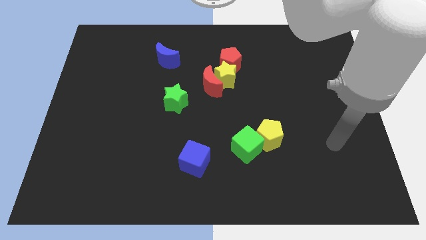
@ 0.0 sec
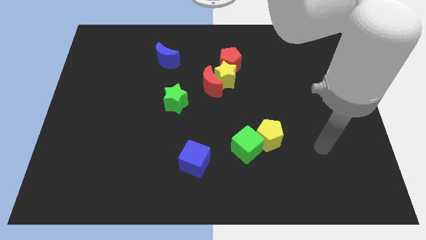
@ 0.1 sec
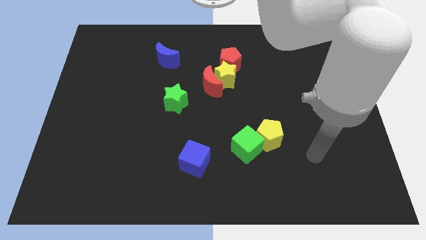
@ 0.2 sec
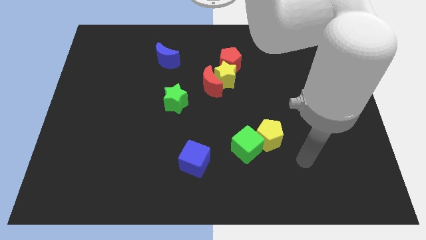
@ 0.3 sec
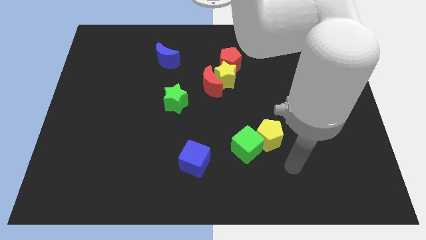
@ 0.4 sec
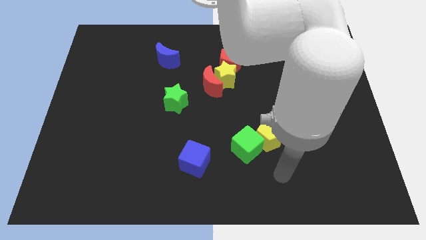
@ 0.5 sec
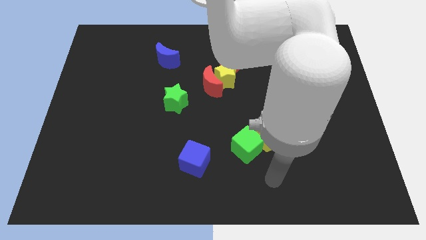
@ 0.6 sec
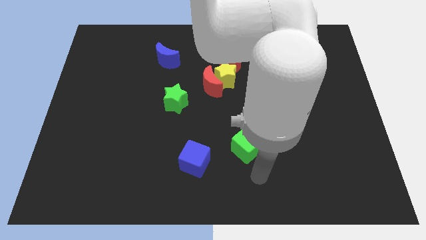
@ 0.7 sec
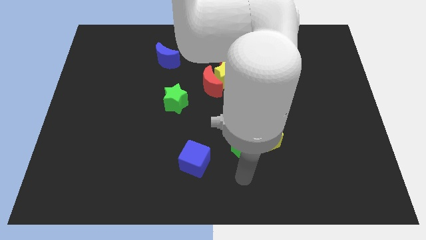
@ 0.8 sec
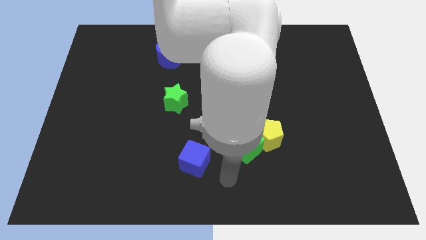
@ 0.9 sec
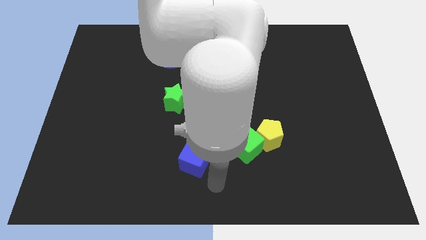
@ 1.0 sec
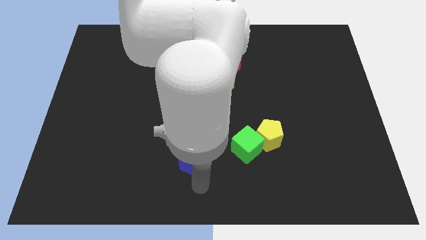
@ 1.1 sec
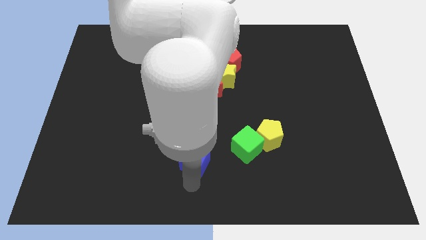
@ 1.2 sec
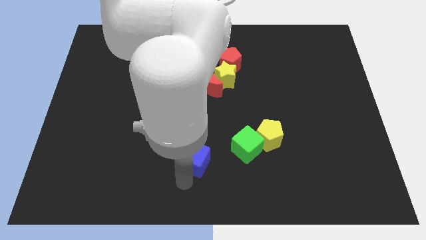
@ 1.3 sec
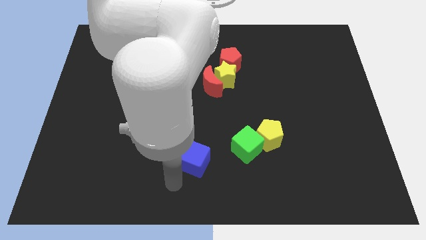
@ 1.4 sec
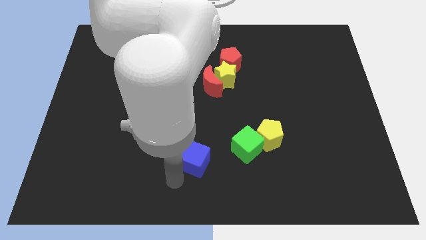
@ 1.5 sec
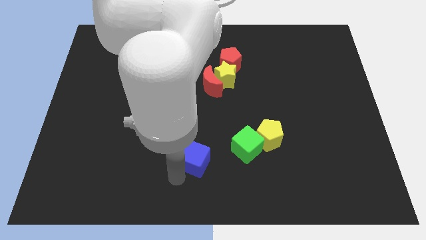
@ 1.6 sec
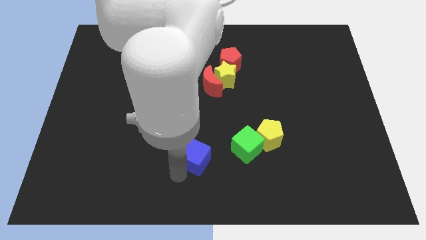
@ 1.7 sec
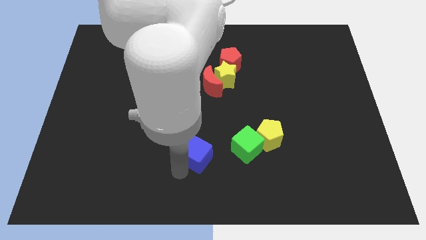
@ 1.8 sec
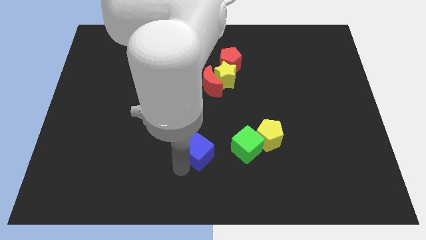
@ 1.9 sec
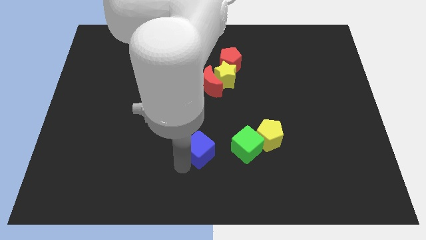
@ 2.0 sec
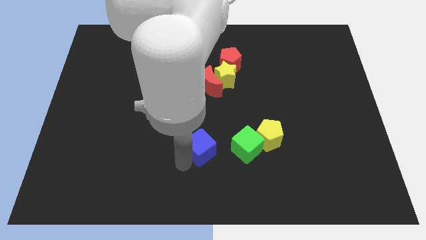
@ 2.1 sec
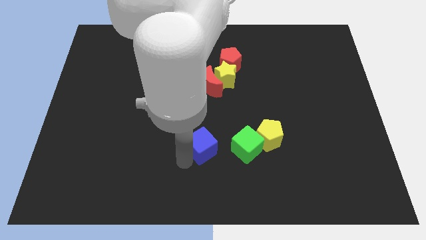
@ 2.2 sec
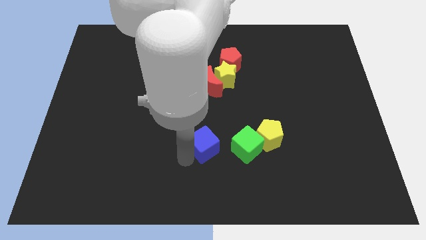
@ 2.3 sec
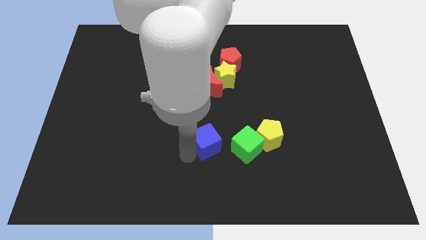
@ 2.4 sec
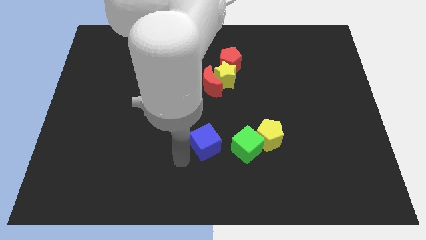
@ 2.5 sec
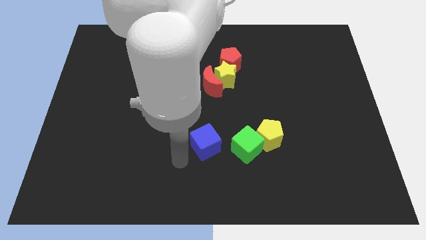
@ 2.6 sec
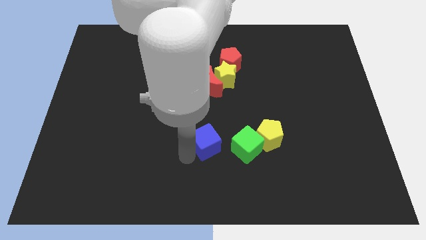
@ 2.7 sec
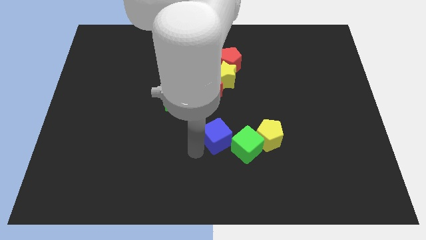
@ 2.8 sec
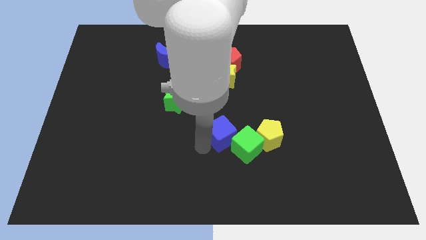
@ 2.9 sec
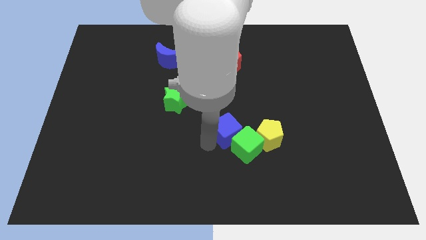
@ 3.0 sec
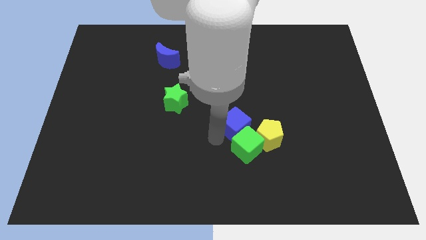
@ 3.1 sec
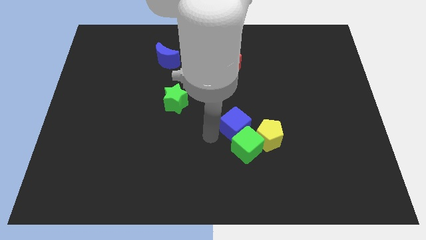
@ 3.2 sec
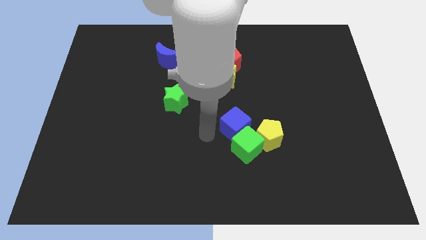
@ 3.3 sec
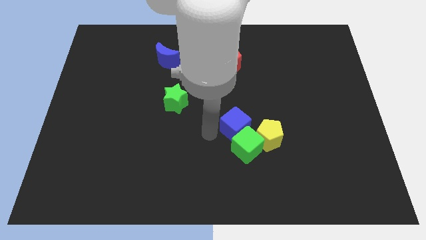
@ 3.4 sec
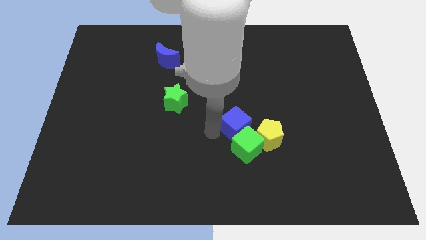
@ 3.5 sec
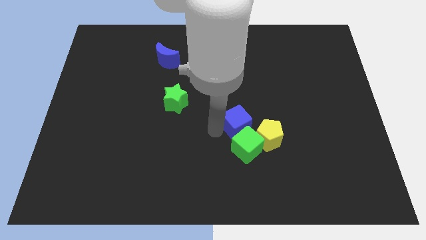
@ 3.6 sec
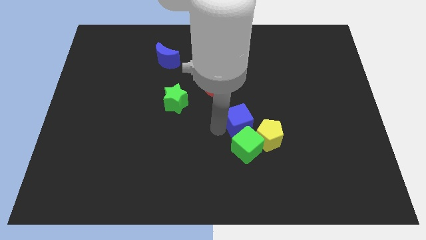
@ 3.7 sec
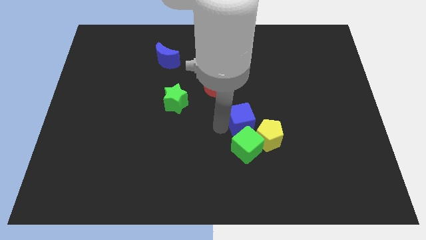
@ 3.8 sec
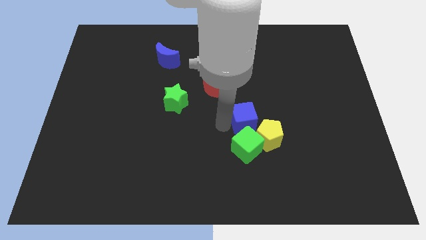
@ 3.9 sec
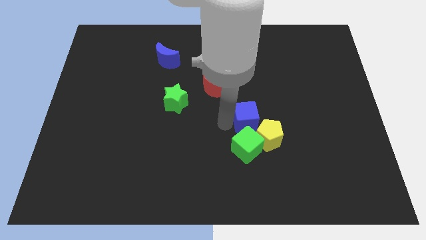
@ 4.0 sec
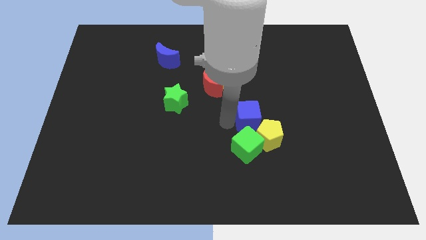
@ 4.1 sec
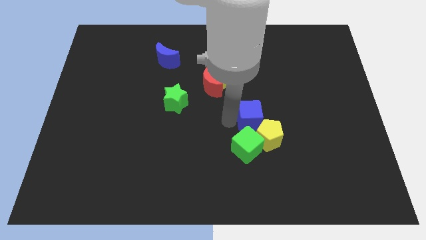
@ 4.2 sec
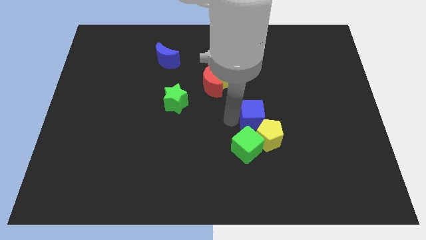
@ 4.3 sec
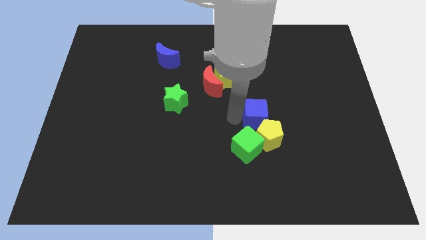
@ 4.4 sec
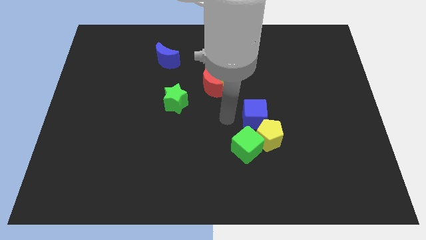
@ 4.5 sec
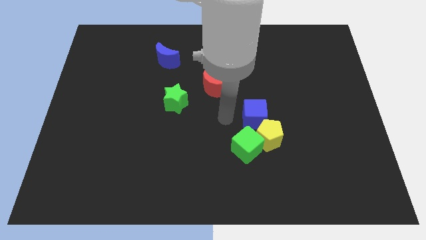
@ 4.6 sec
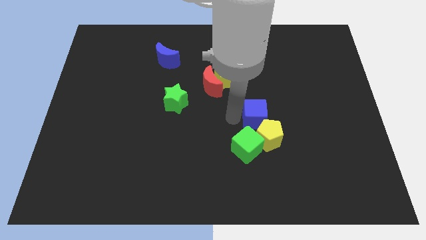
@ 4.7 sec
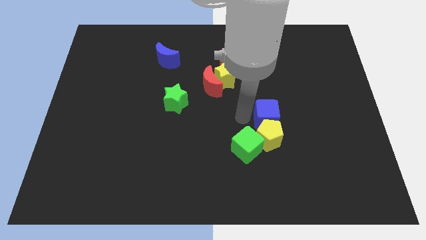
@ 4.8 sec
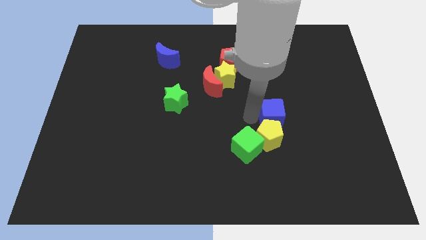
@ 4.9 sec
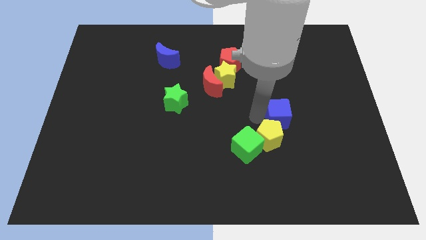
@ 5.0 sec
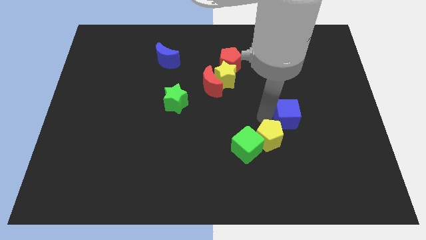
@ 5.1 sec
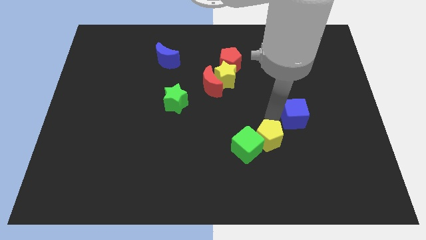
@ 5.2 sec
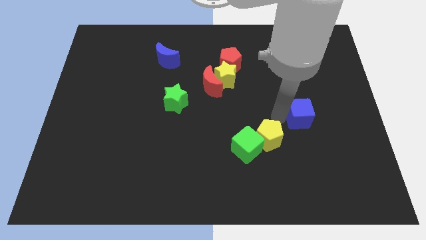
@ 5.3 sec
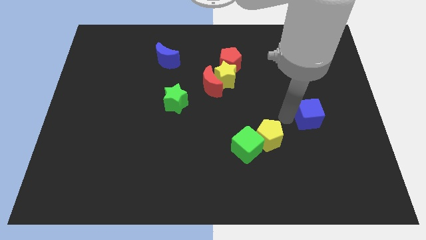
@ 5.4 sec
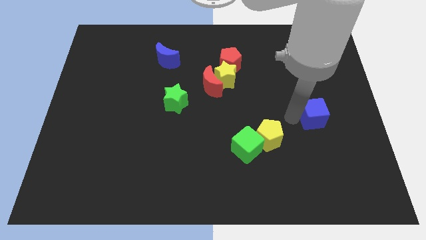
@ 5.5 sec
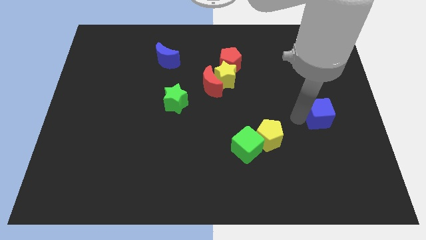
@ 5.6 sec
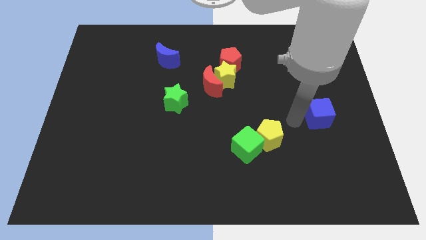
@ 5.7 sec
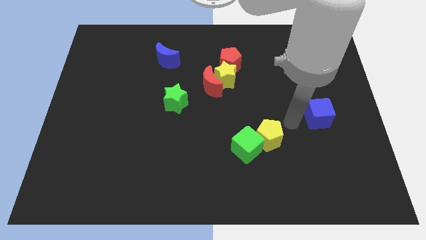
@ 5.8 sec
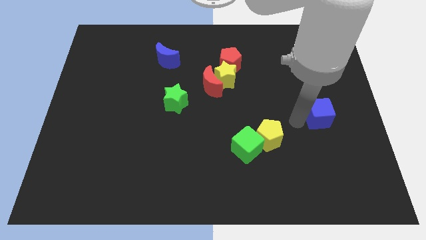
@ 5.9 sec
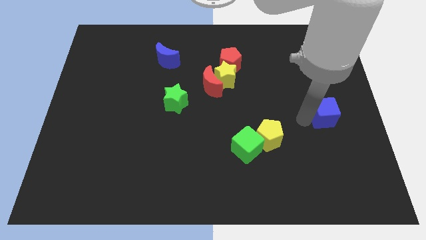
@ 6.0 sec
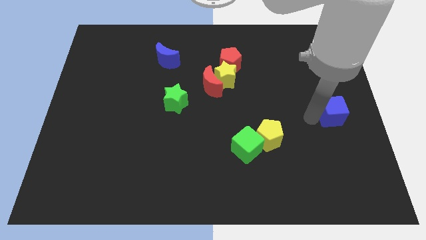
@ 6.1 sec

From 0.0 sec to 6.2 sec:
put the blue cube to the right side of the board

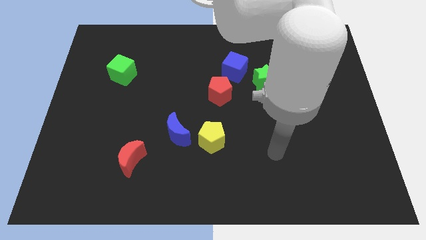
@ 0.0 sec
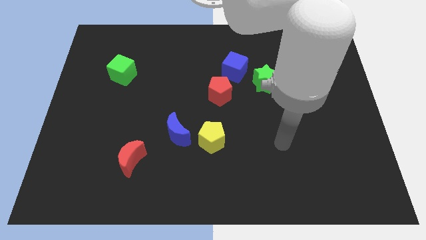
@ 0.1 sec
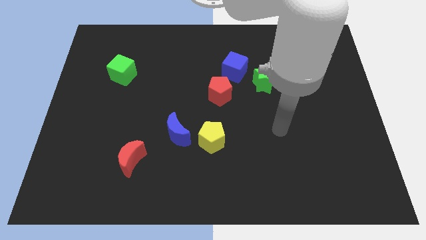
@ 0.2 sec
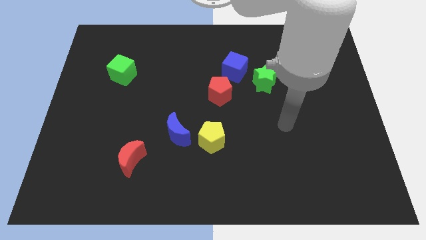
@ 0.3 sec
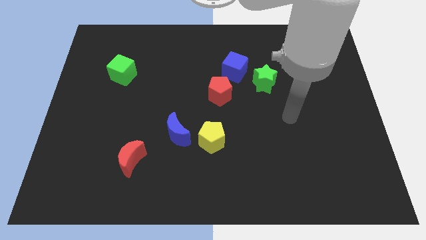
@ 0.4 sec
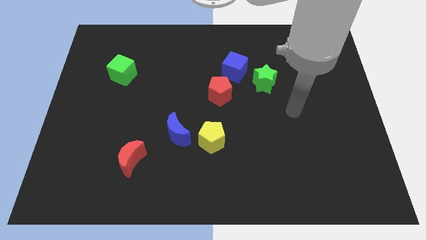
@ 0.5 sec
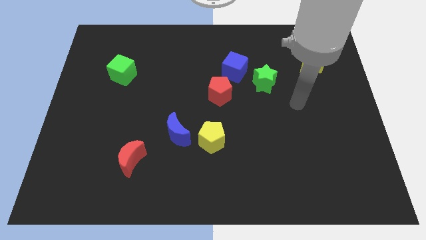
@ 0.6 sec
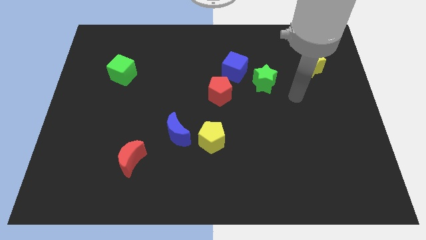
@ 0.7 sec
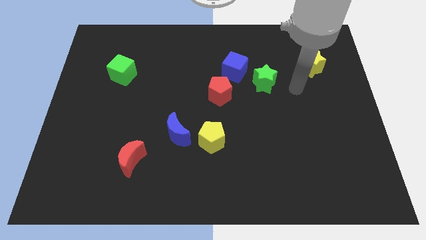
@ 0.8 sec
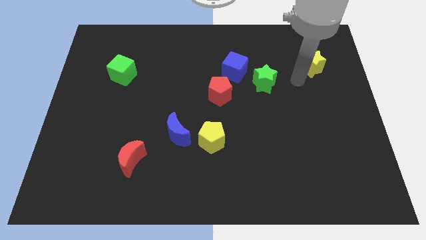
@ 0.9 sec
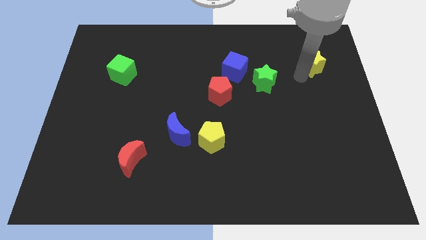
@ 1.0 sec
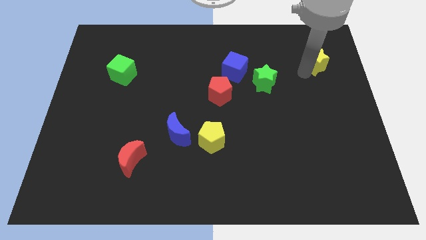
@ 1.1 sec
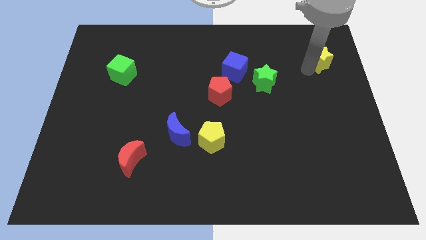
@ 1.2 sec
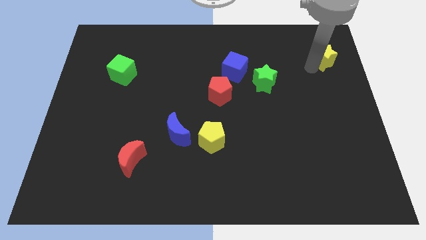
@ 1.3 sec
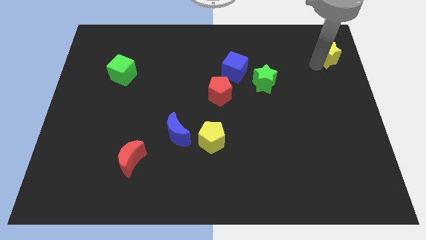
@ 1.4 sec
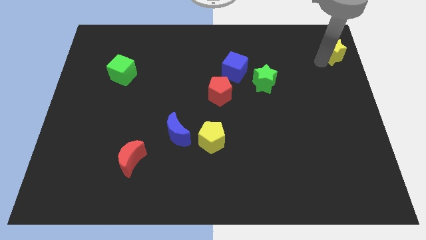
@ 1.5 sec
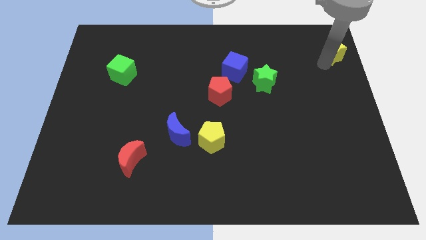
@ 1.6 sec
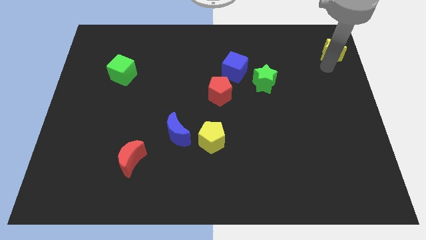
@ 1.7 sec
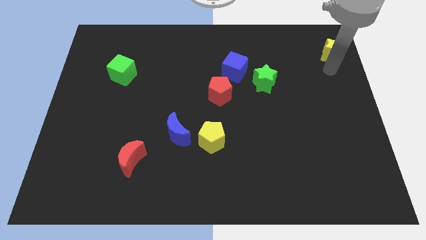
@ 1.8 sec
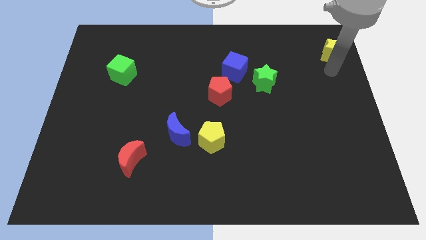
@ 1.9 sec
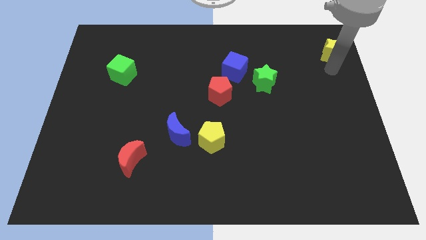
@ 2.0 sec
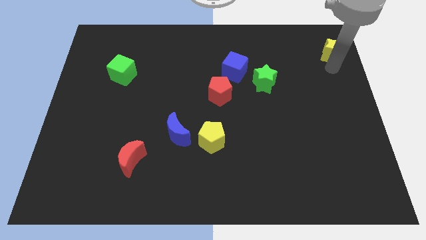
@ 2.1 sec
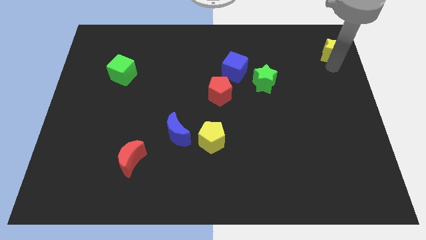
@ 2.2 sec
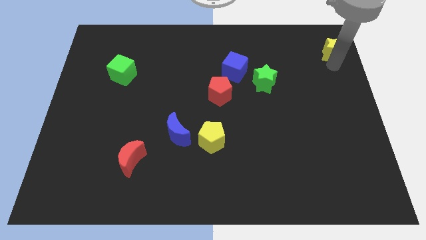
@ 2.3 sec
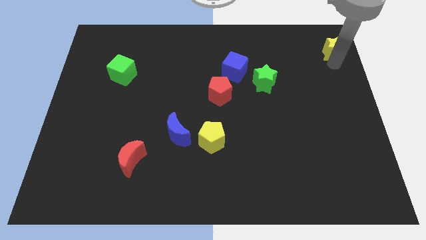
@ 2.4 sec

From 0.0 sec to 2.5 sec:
move the yellow star to the top right
